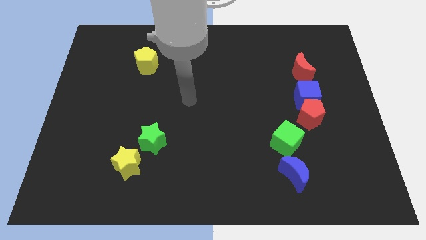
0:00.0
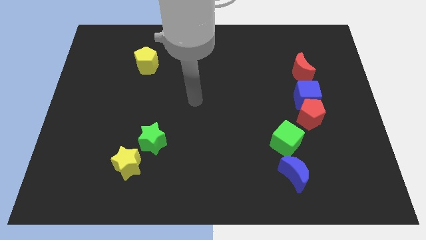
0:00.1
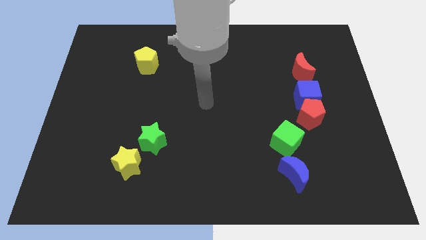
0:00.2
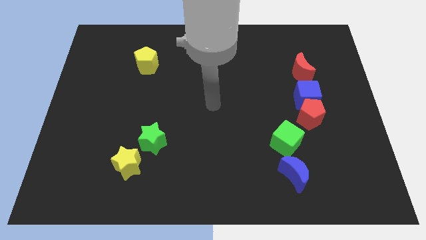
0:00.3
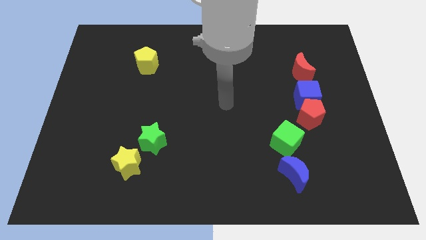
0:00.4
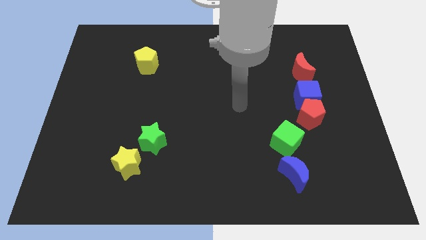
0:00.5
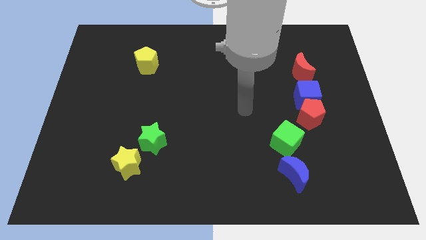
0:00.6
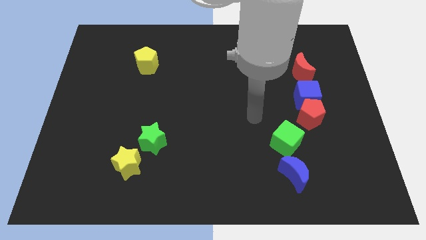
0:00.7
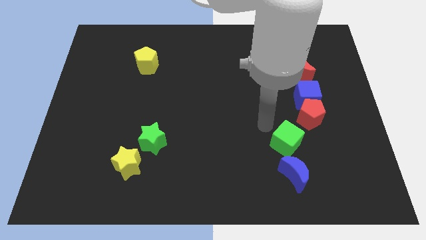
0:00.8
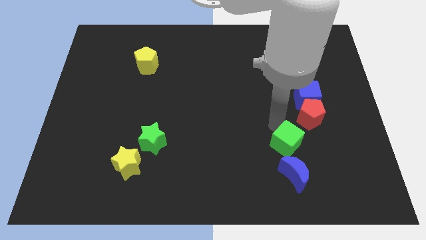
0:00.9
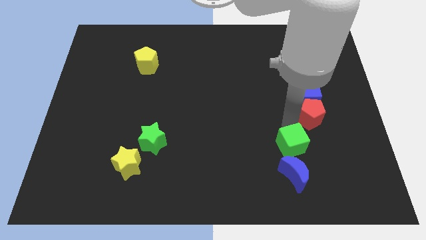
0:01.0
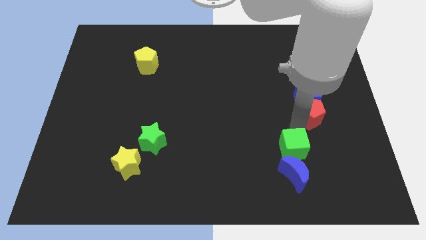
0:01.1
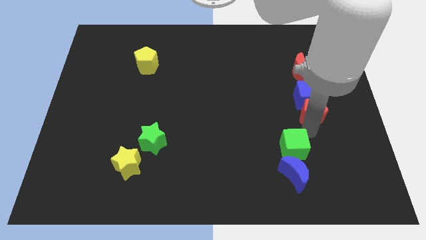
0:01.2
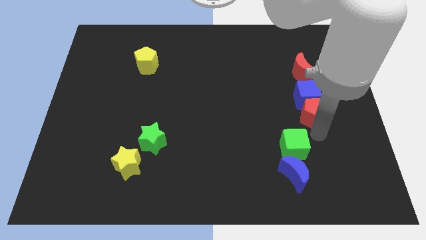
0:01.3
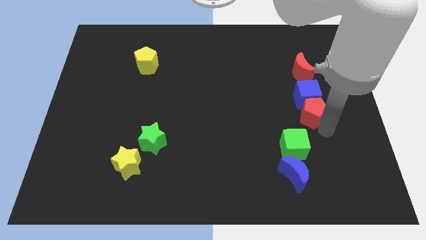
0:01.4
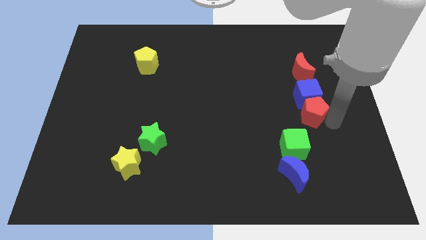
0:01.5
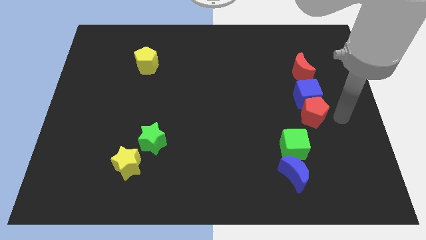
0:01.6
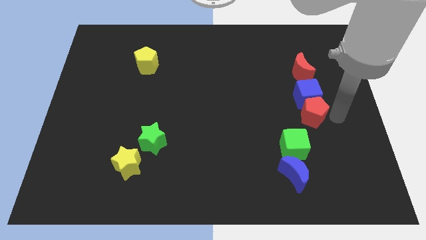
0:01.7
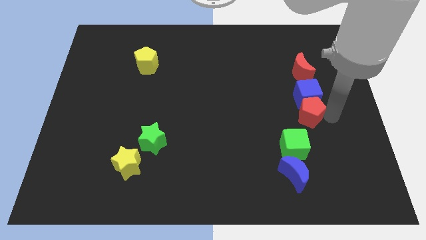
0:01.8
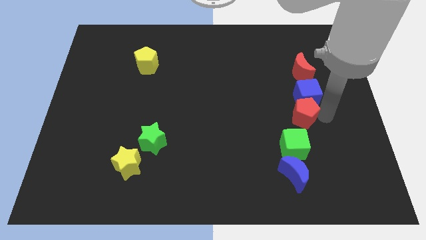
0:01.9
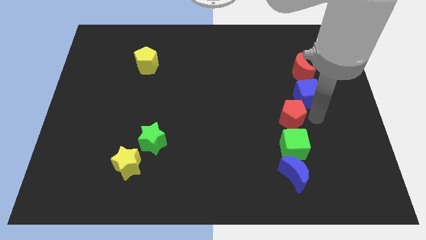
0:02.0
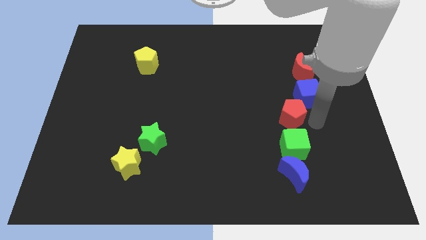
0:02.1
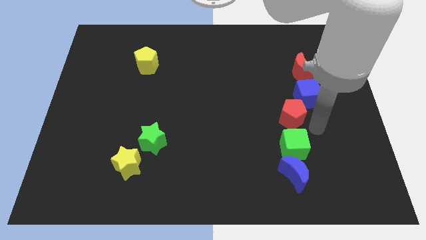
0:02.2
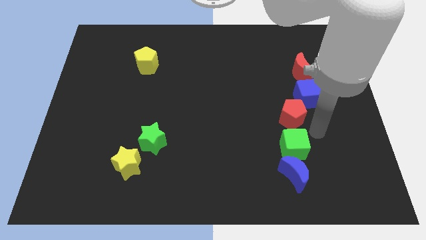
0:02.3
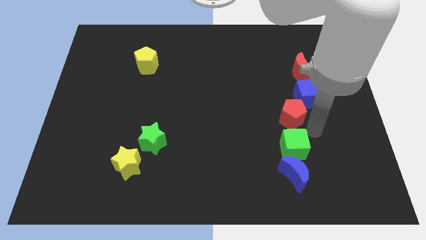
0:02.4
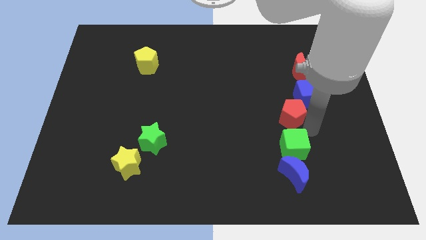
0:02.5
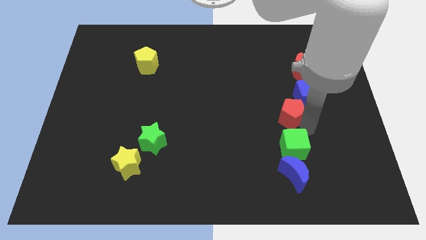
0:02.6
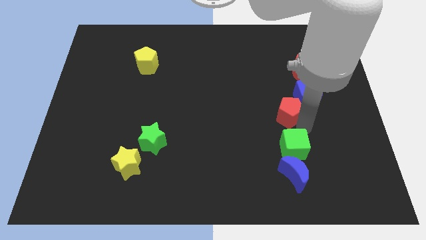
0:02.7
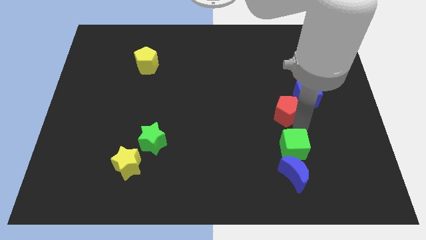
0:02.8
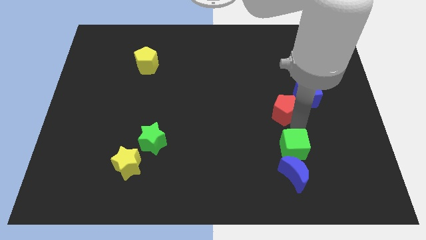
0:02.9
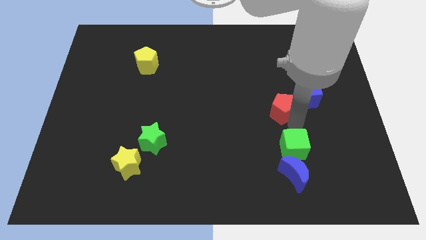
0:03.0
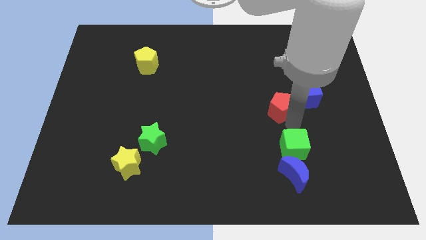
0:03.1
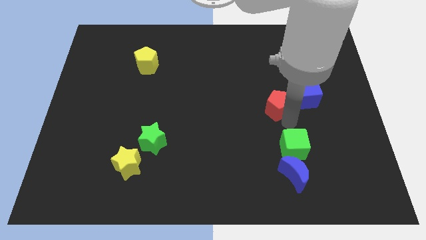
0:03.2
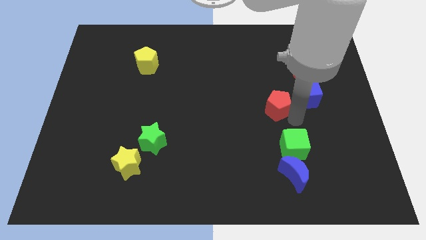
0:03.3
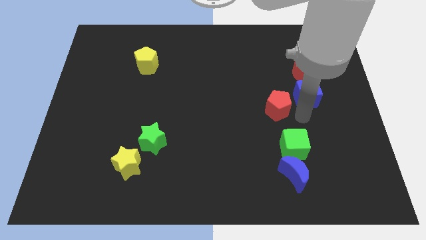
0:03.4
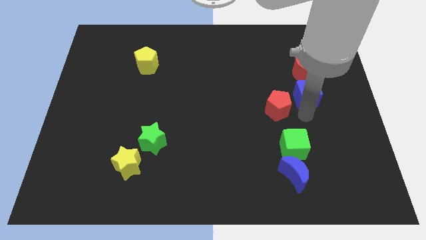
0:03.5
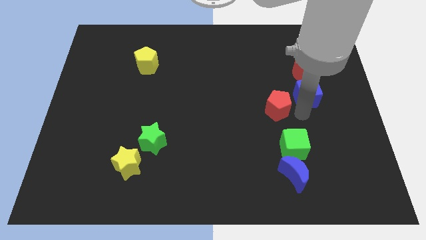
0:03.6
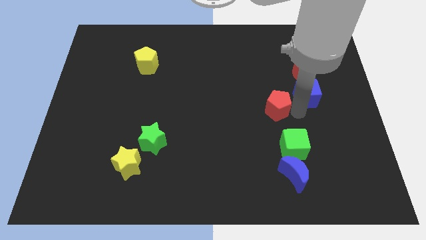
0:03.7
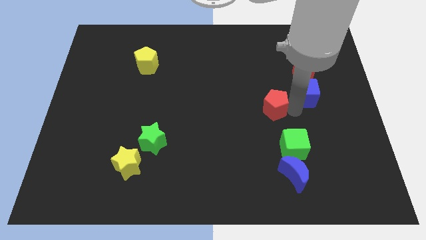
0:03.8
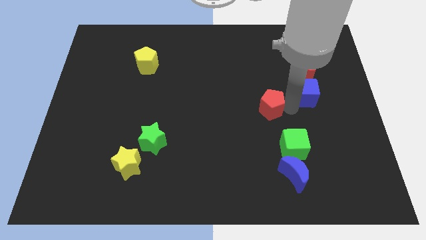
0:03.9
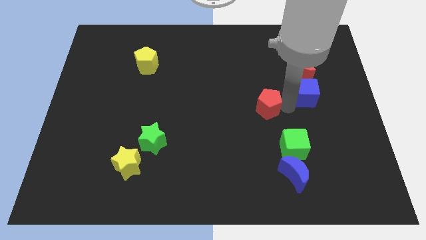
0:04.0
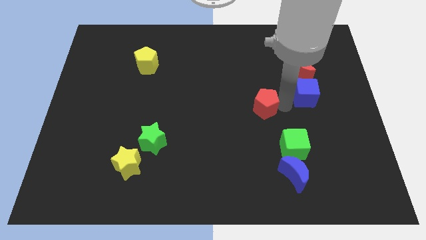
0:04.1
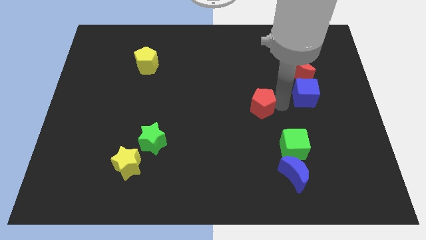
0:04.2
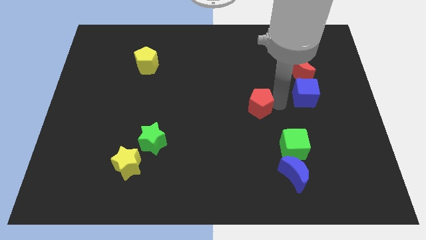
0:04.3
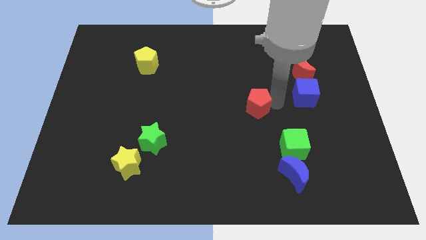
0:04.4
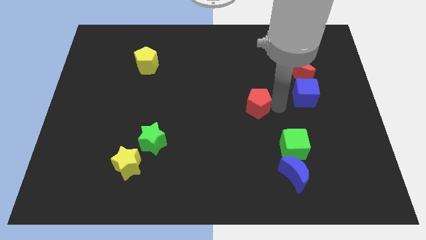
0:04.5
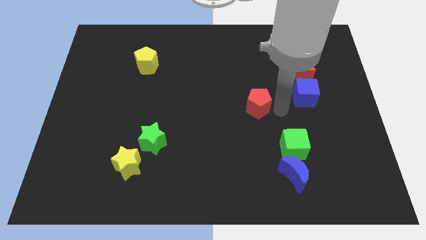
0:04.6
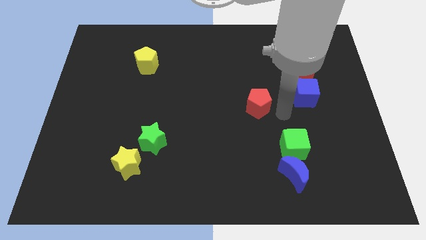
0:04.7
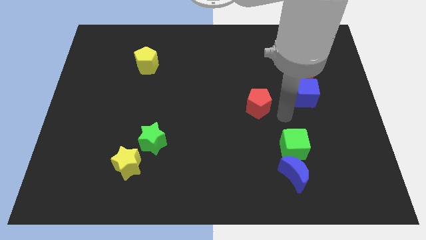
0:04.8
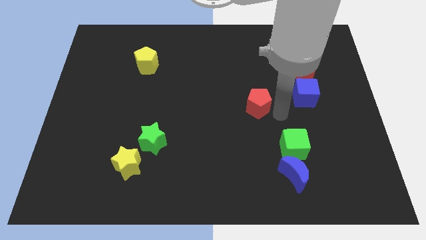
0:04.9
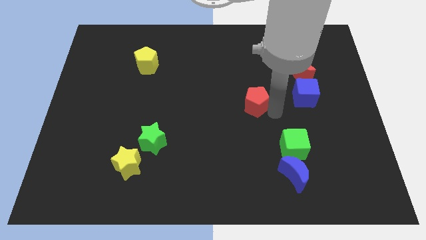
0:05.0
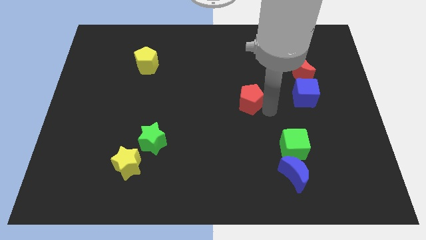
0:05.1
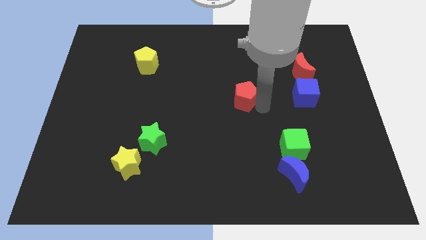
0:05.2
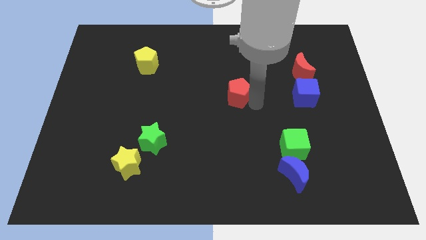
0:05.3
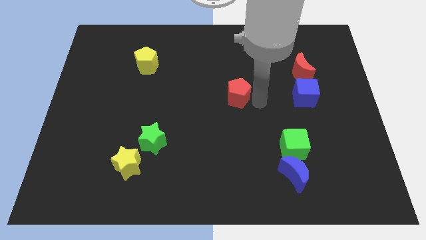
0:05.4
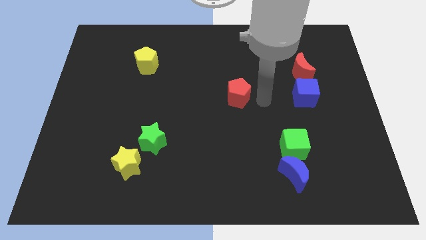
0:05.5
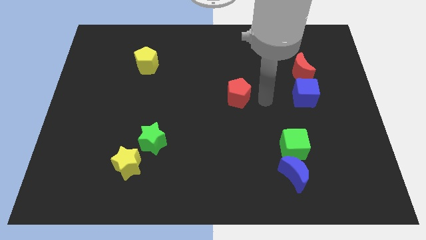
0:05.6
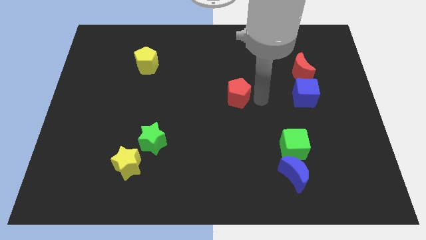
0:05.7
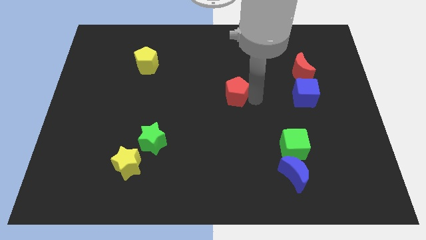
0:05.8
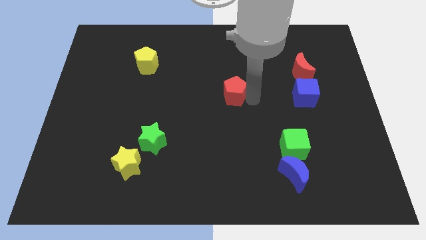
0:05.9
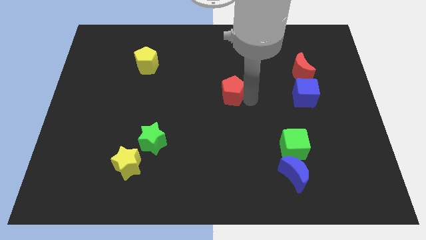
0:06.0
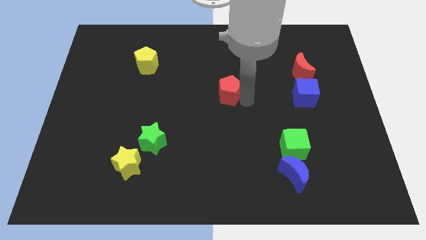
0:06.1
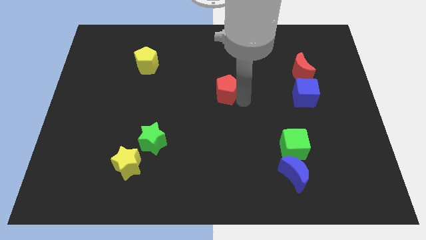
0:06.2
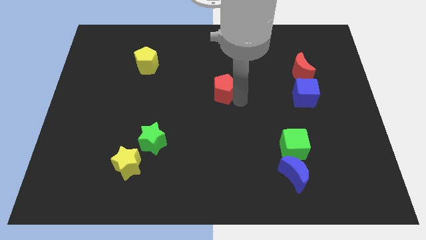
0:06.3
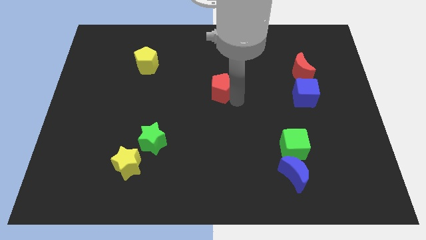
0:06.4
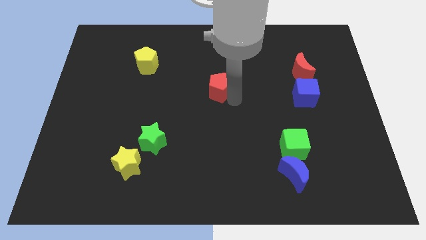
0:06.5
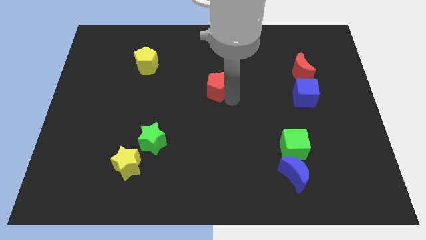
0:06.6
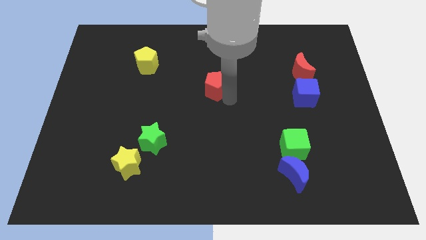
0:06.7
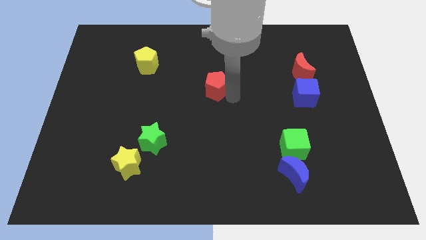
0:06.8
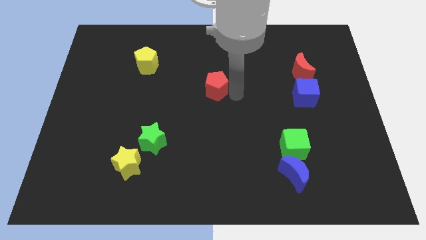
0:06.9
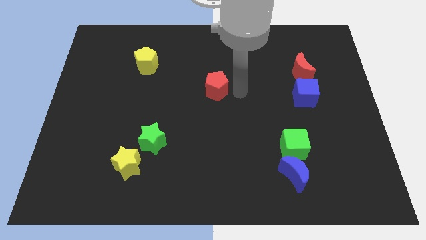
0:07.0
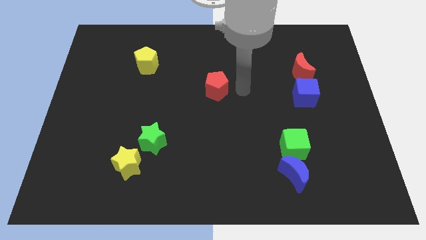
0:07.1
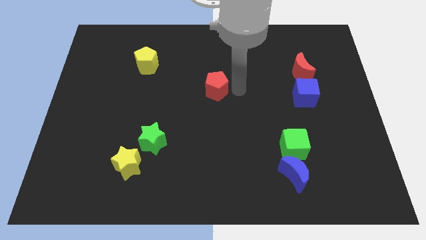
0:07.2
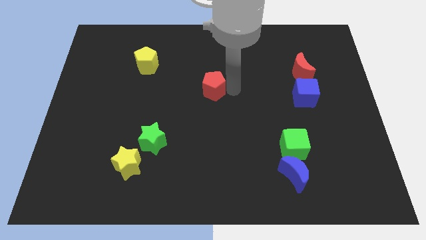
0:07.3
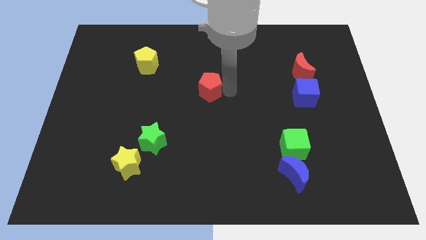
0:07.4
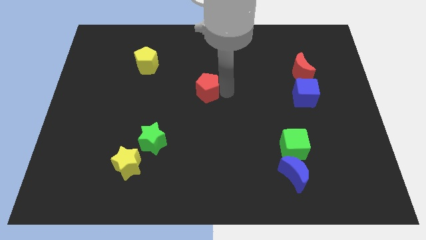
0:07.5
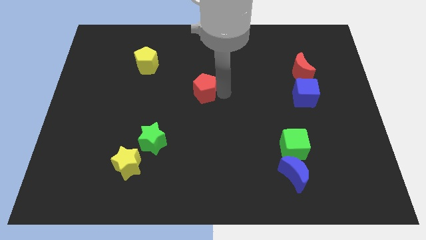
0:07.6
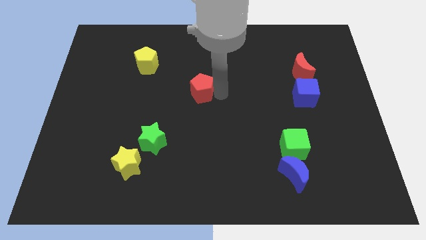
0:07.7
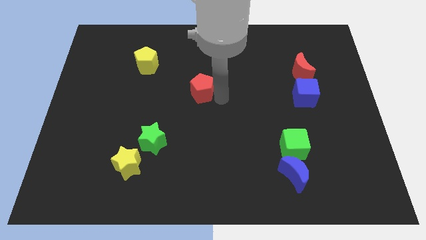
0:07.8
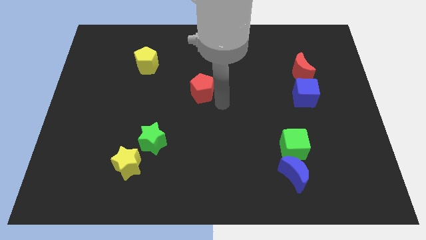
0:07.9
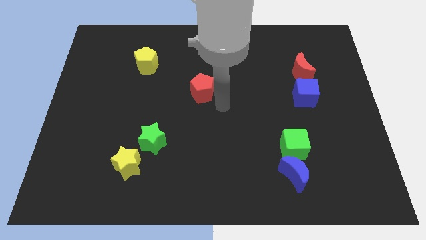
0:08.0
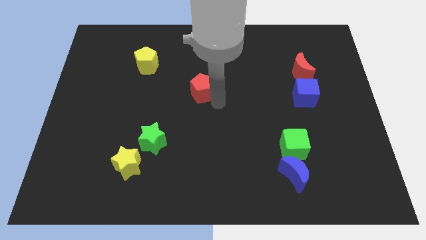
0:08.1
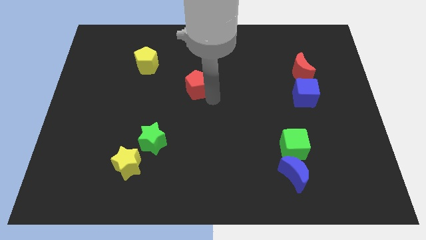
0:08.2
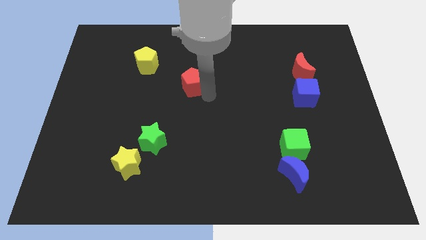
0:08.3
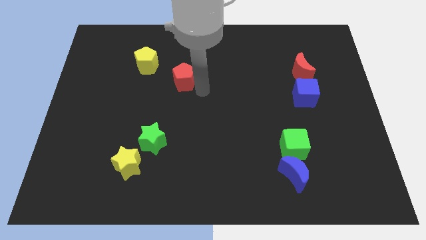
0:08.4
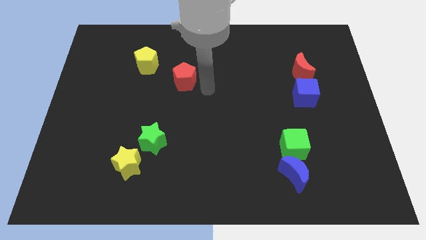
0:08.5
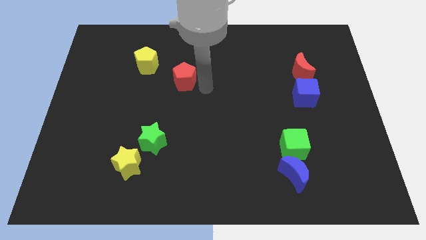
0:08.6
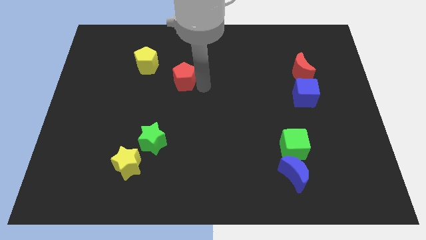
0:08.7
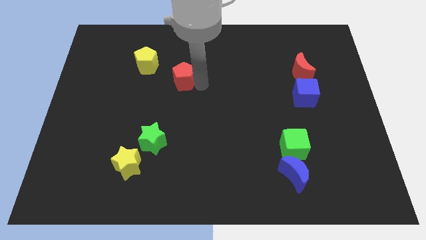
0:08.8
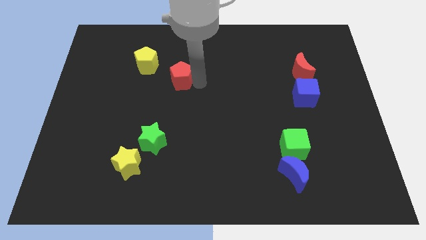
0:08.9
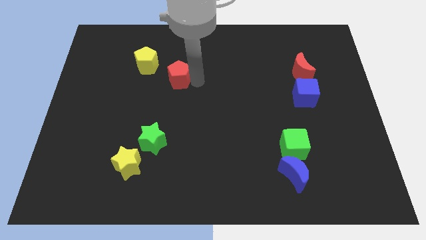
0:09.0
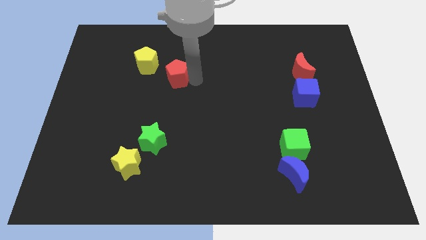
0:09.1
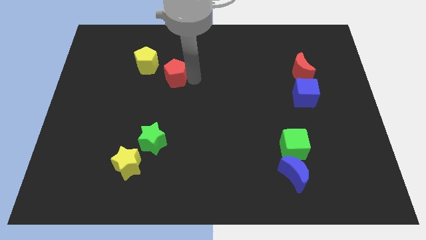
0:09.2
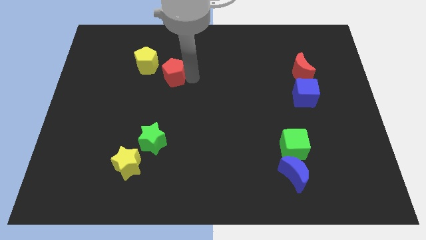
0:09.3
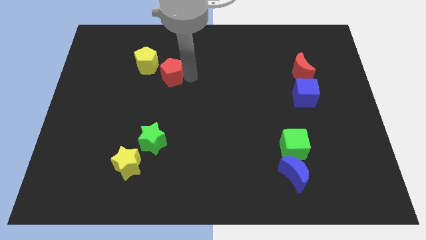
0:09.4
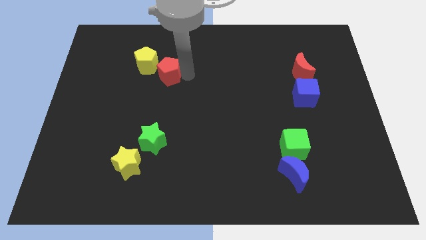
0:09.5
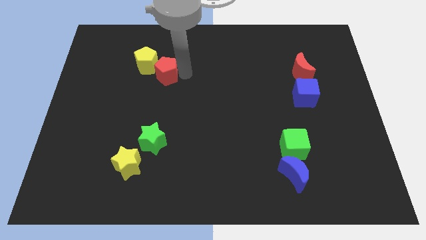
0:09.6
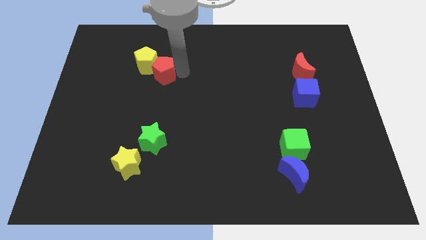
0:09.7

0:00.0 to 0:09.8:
put the red pentagon to the yellow pentagon
